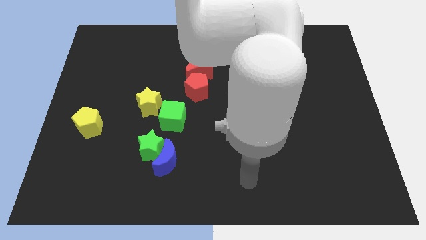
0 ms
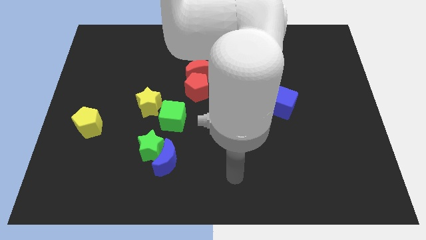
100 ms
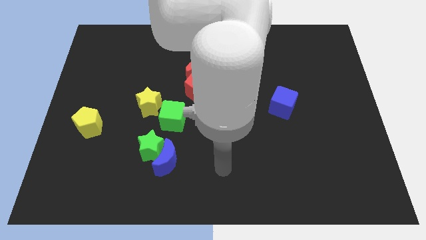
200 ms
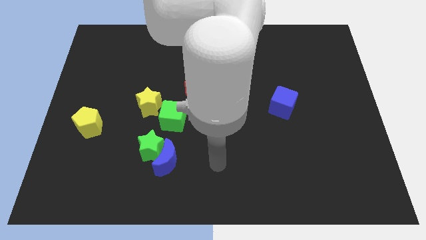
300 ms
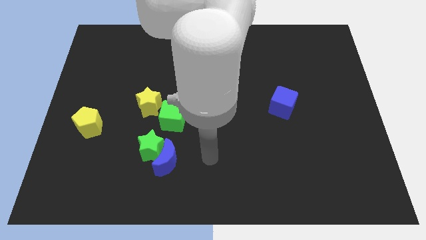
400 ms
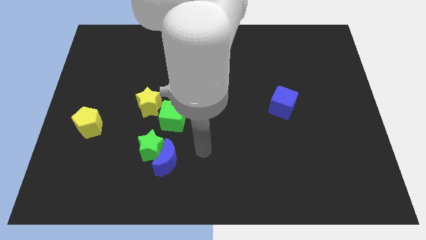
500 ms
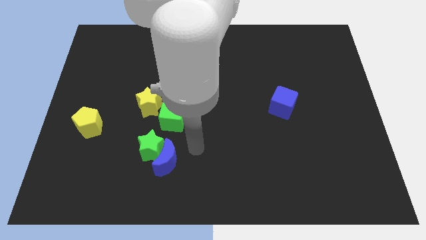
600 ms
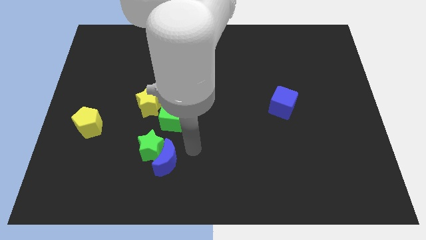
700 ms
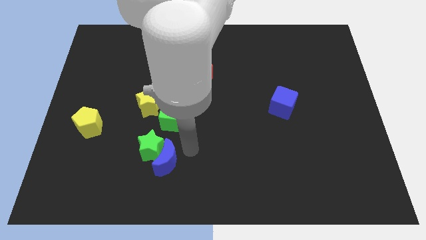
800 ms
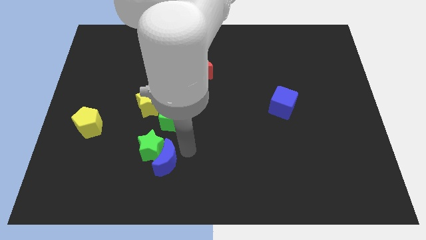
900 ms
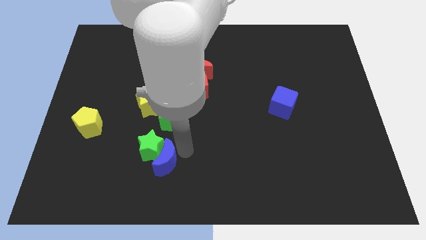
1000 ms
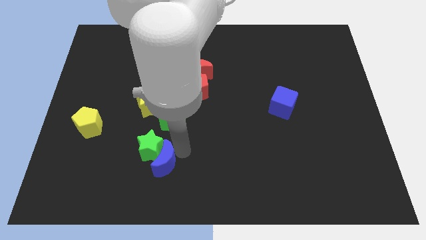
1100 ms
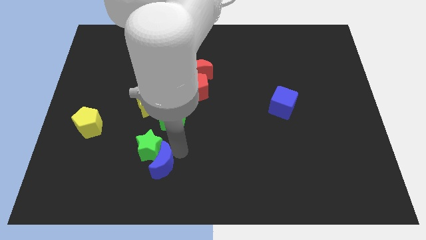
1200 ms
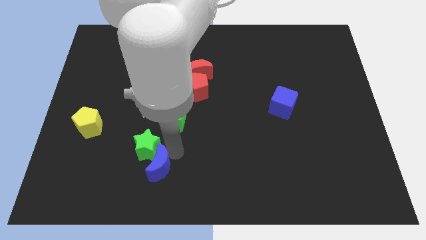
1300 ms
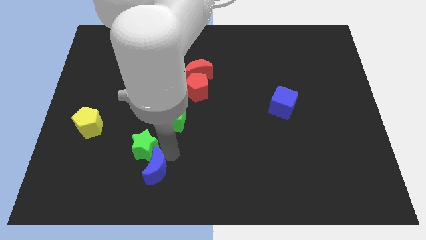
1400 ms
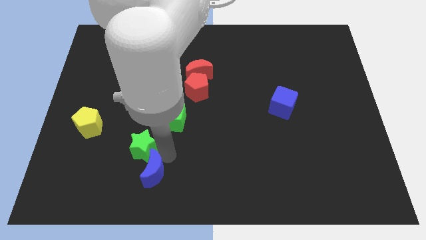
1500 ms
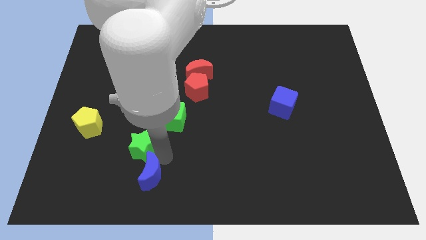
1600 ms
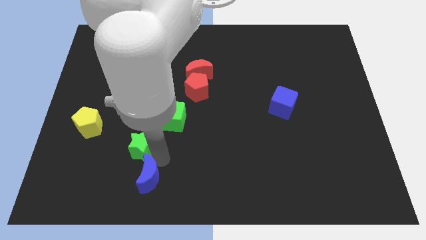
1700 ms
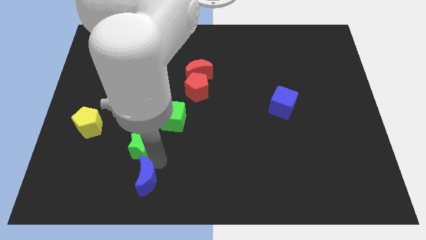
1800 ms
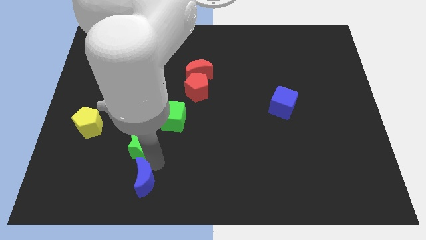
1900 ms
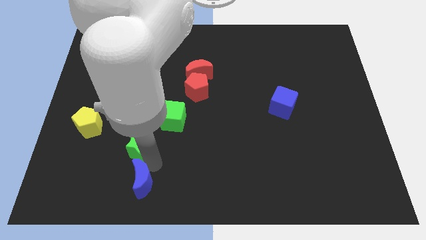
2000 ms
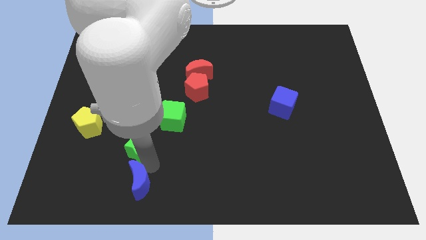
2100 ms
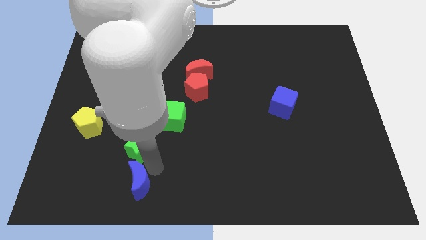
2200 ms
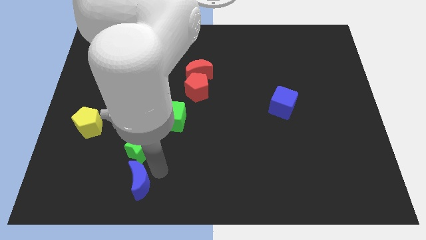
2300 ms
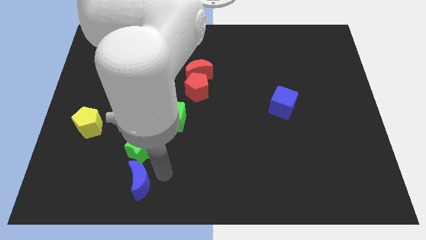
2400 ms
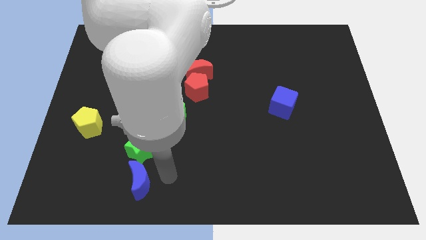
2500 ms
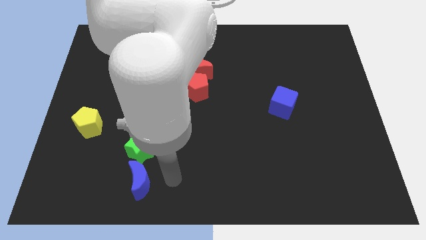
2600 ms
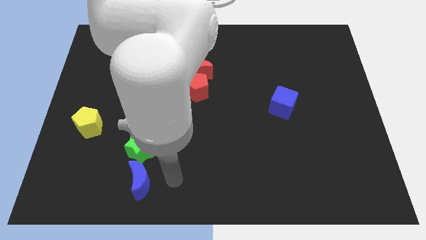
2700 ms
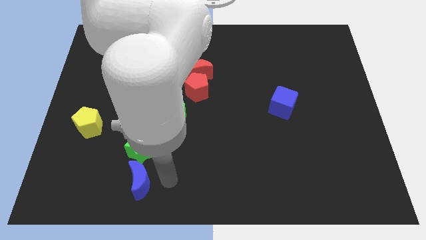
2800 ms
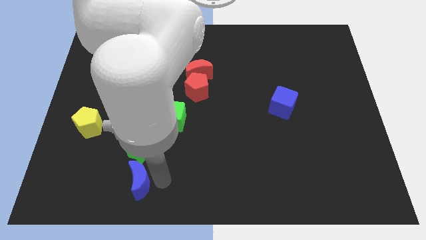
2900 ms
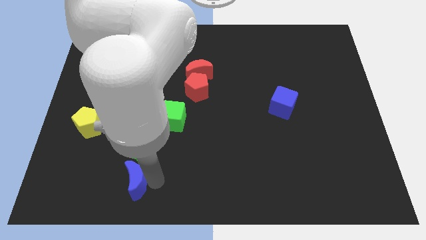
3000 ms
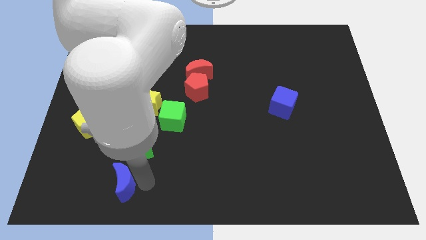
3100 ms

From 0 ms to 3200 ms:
push the blue moon left slightly

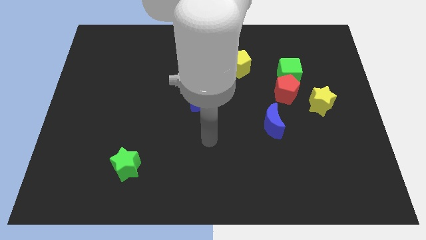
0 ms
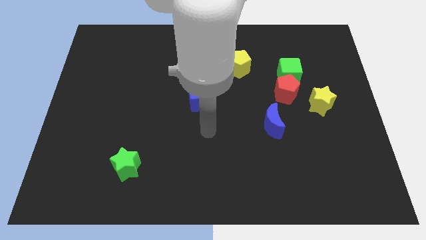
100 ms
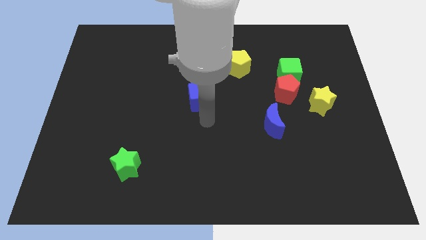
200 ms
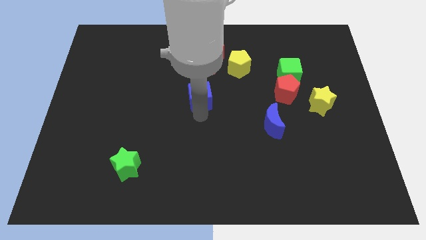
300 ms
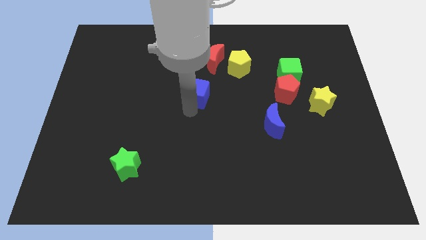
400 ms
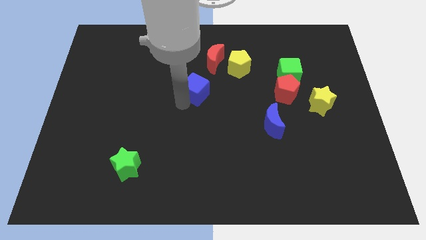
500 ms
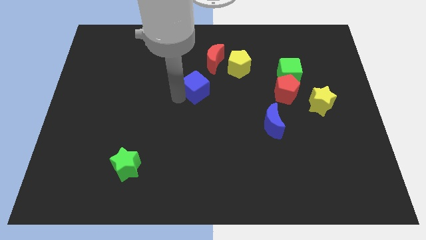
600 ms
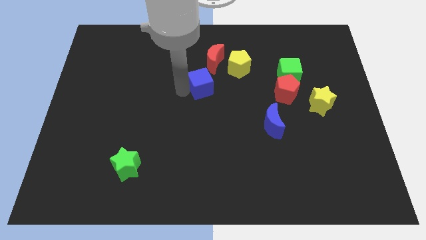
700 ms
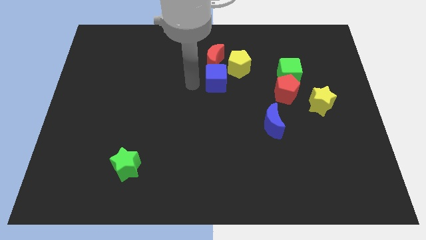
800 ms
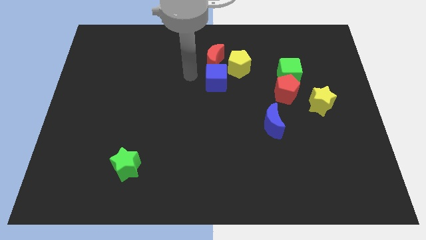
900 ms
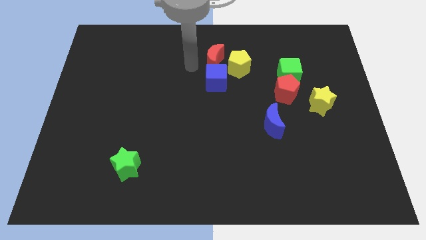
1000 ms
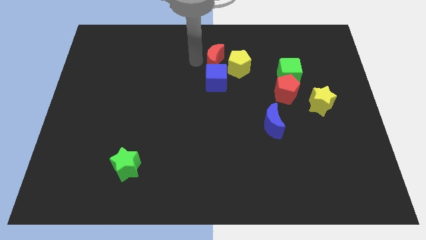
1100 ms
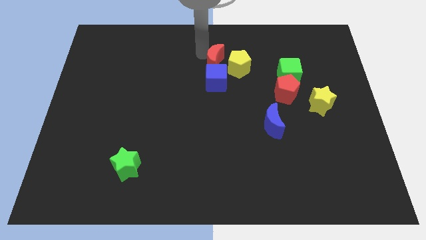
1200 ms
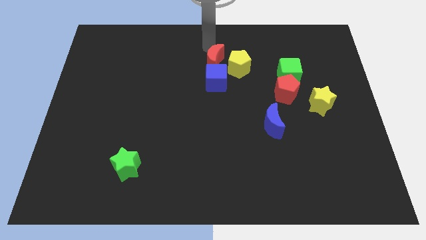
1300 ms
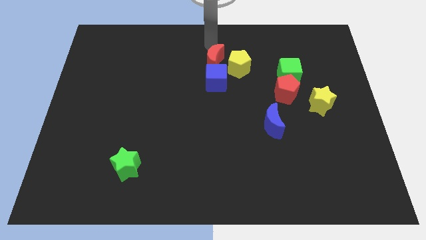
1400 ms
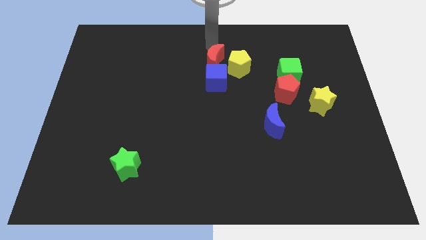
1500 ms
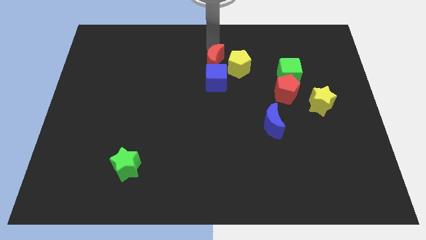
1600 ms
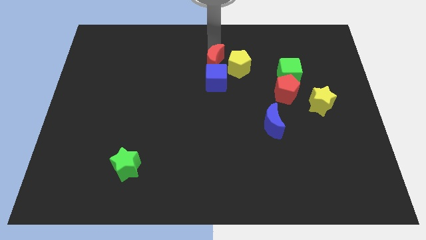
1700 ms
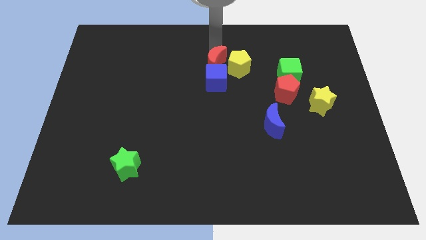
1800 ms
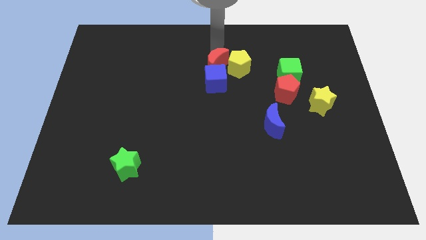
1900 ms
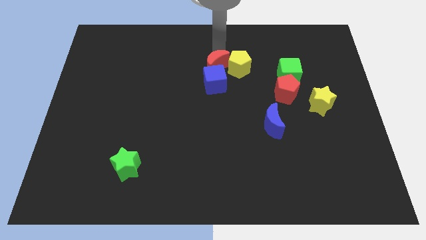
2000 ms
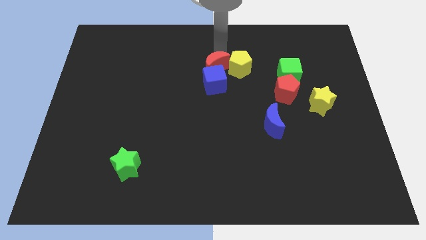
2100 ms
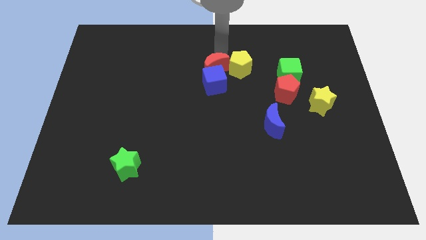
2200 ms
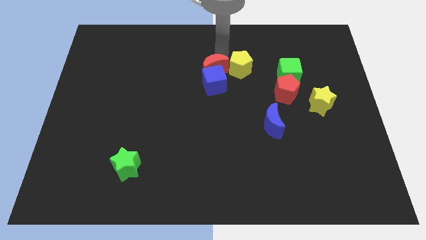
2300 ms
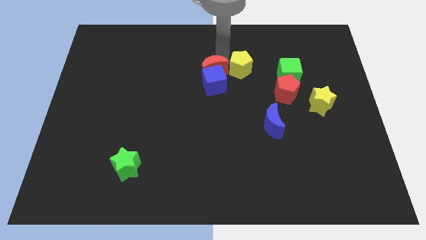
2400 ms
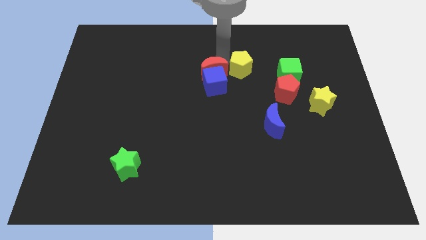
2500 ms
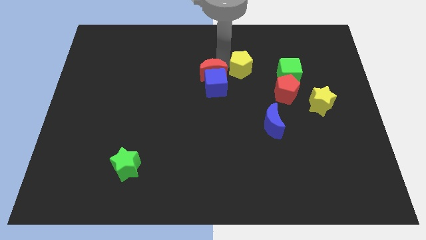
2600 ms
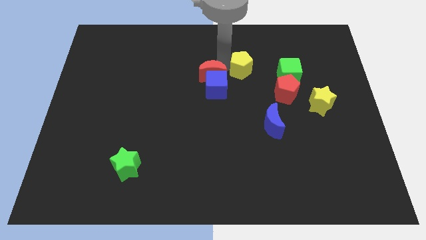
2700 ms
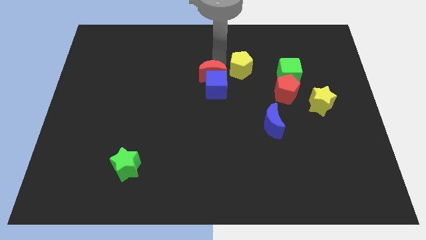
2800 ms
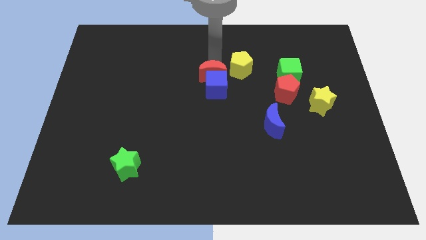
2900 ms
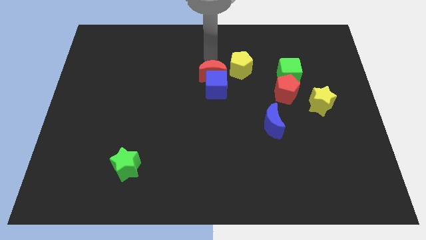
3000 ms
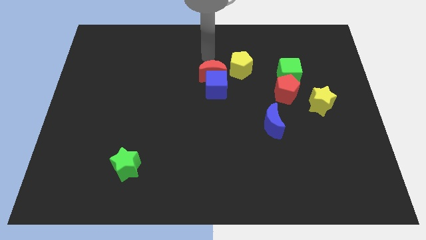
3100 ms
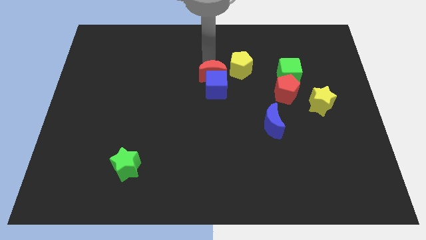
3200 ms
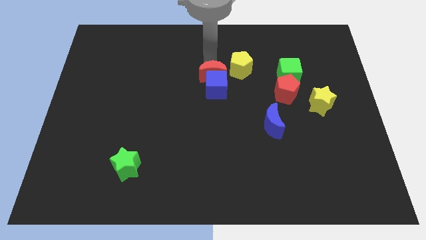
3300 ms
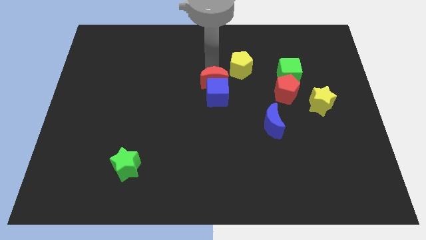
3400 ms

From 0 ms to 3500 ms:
slightly slide the red moon downwards

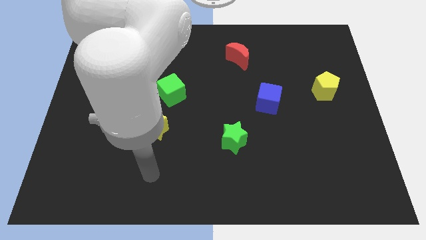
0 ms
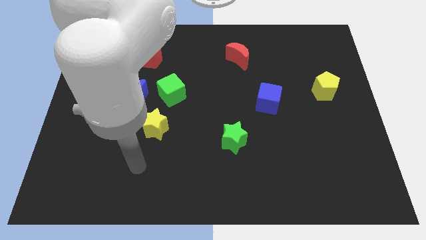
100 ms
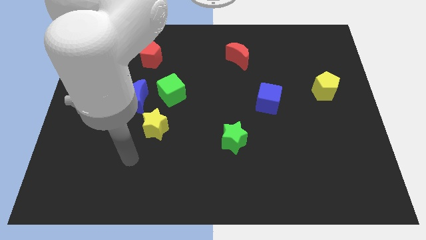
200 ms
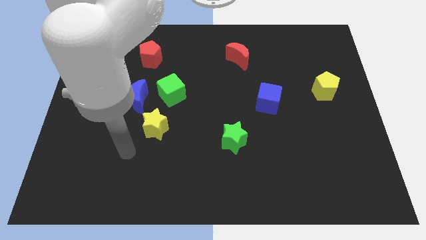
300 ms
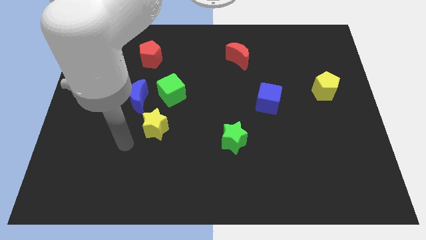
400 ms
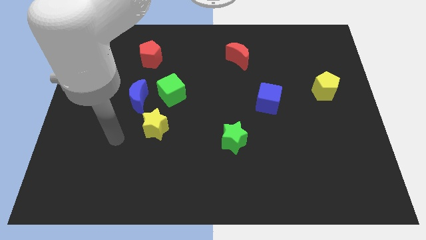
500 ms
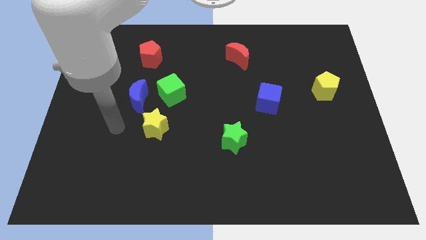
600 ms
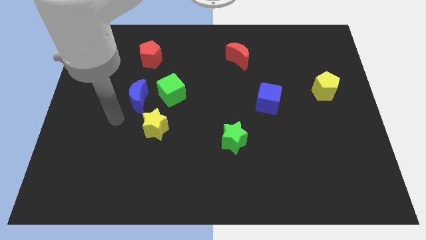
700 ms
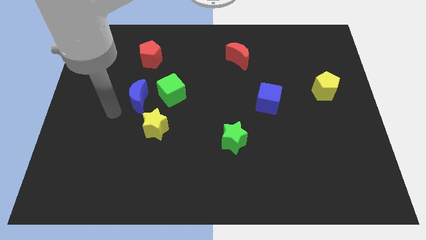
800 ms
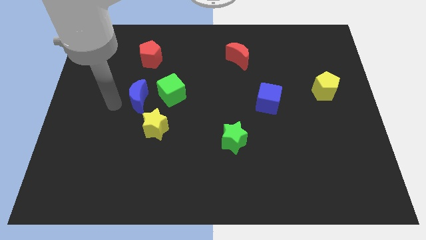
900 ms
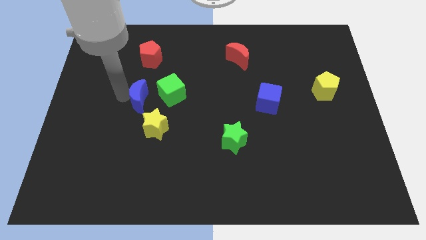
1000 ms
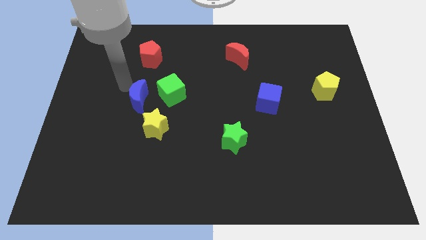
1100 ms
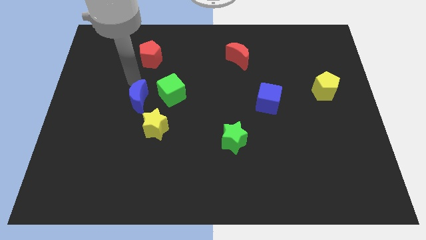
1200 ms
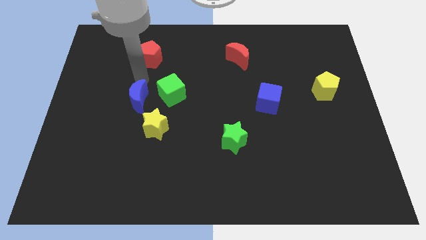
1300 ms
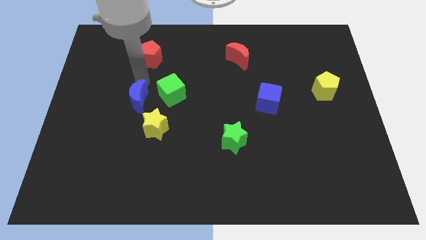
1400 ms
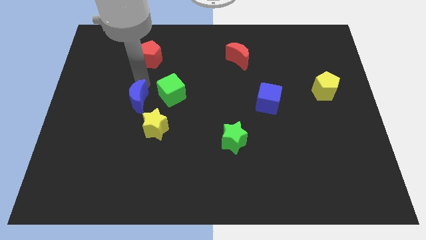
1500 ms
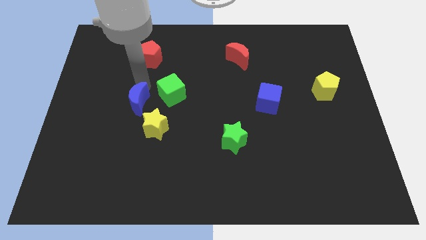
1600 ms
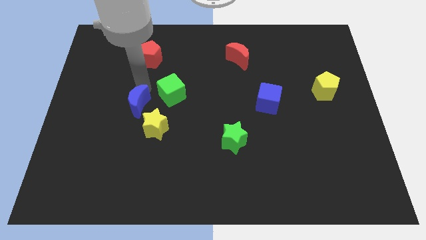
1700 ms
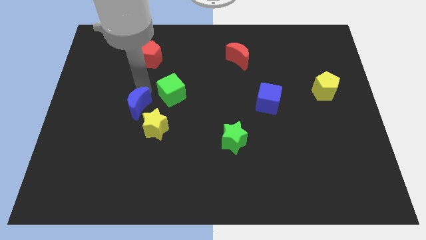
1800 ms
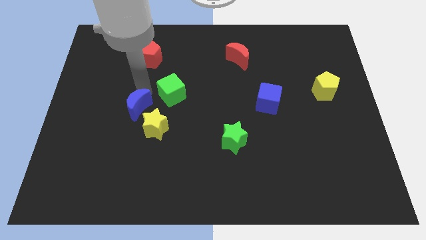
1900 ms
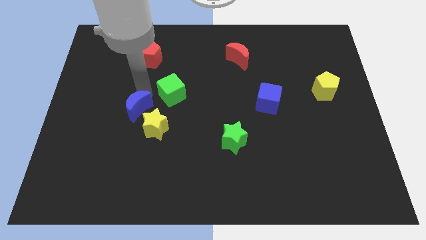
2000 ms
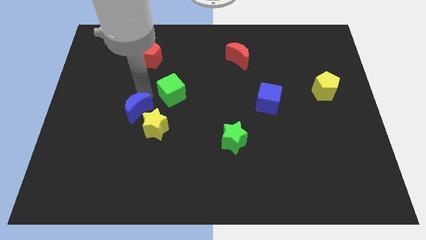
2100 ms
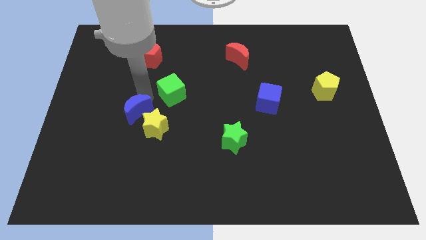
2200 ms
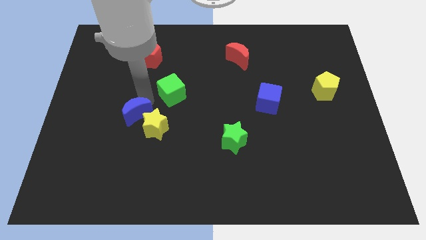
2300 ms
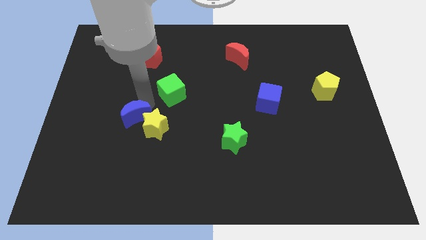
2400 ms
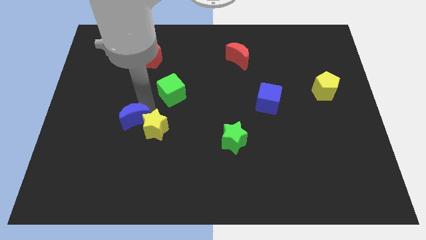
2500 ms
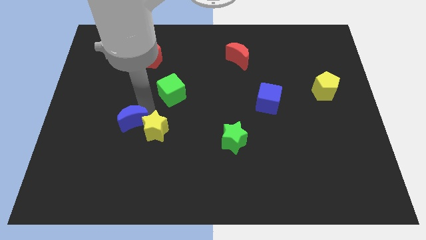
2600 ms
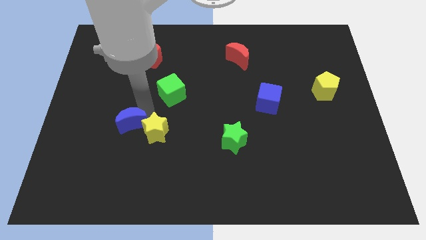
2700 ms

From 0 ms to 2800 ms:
push the blue moon slightly down
